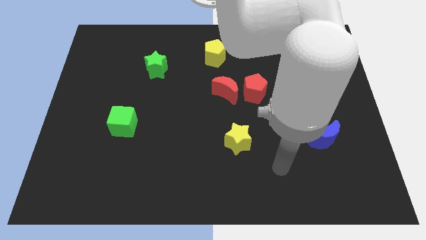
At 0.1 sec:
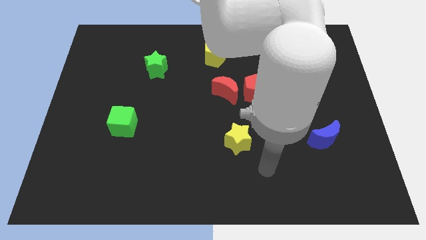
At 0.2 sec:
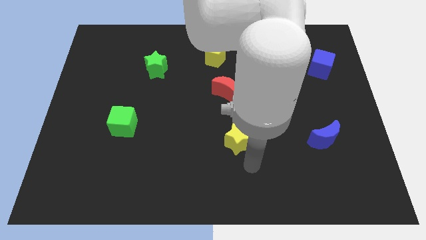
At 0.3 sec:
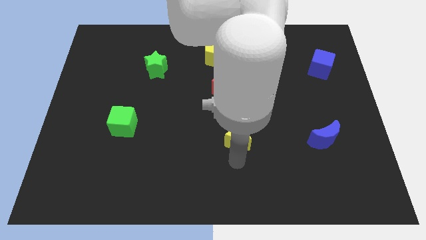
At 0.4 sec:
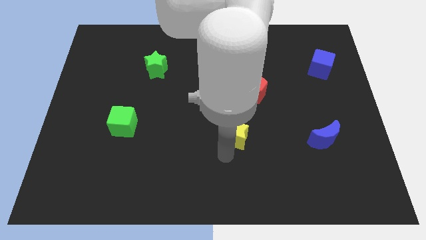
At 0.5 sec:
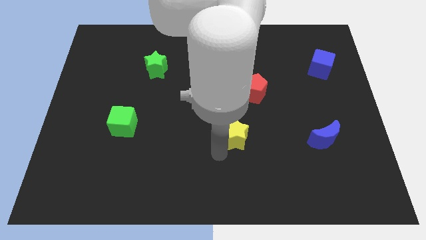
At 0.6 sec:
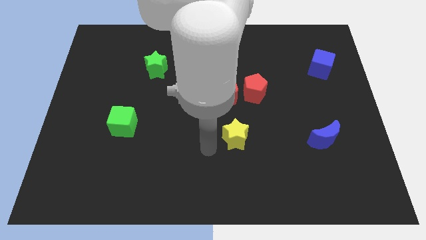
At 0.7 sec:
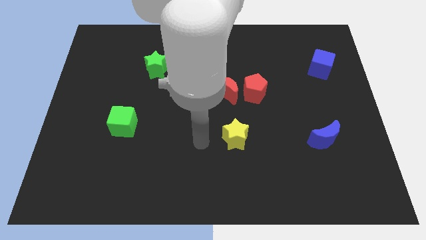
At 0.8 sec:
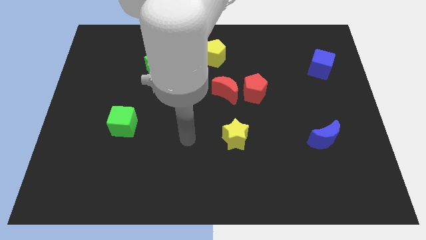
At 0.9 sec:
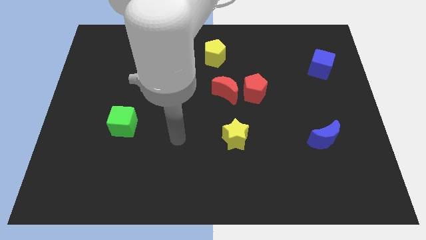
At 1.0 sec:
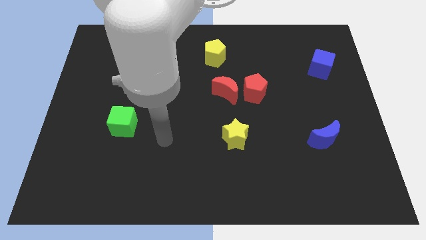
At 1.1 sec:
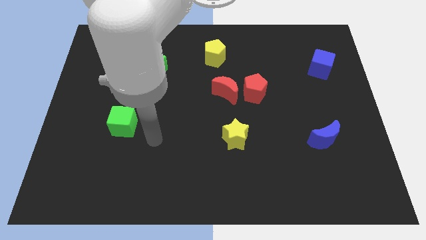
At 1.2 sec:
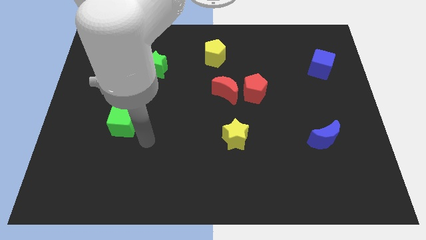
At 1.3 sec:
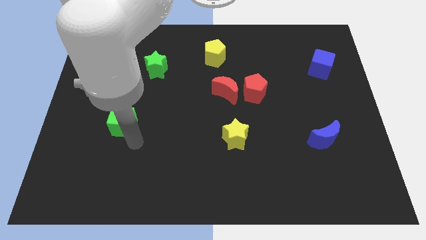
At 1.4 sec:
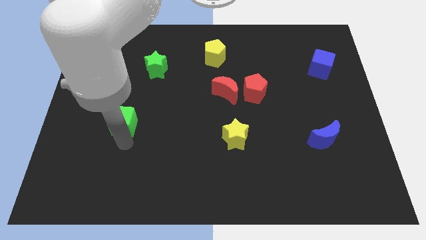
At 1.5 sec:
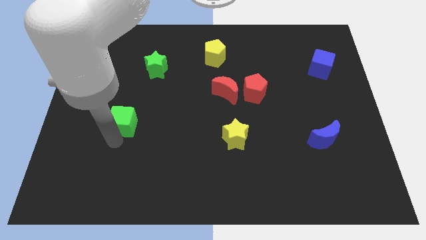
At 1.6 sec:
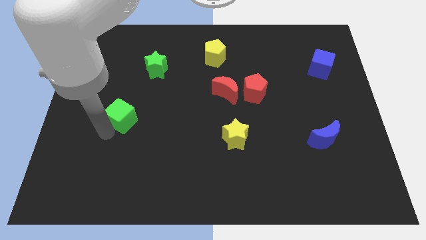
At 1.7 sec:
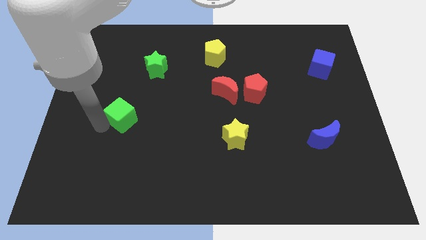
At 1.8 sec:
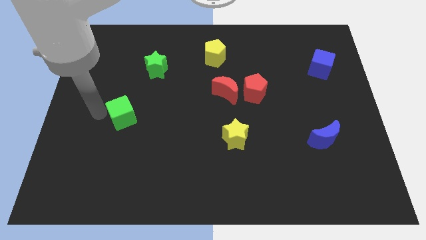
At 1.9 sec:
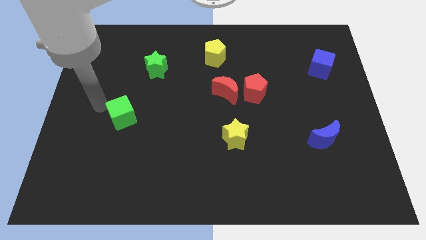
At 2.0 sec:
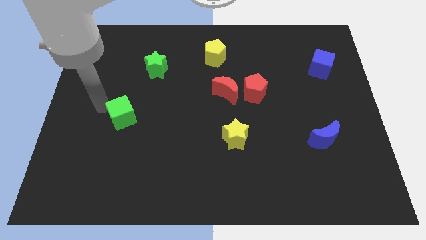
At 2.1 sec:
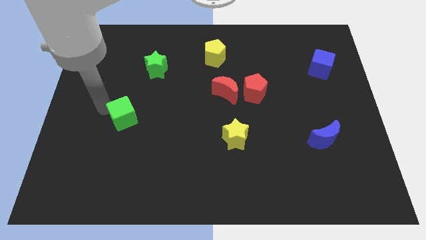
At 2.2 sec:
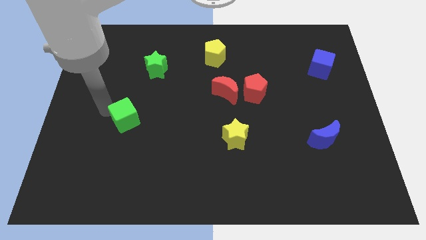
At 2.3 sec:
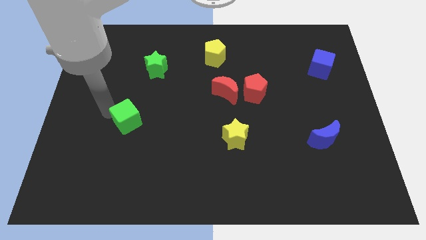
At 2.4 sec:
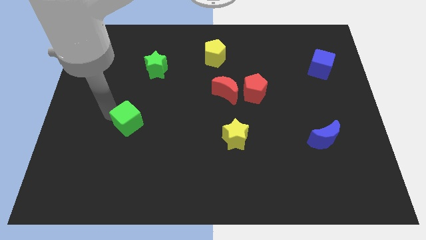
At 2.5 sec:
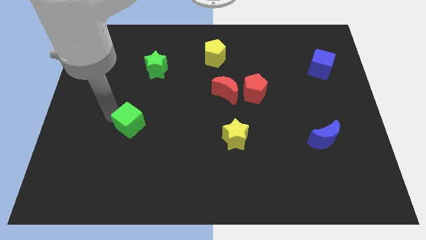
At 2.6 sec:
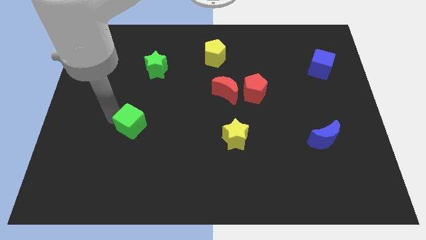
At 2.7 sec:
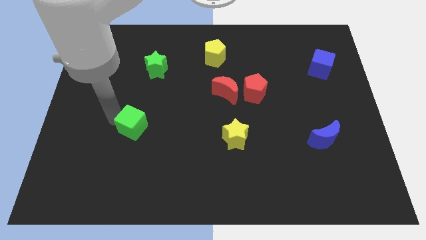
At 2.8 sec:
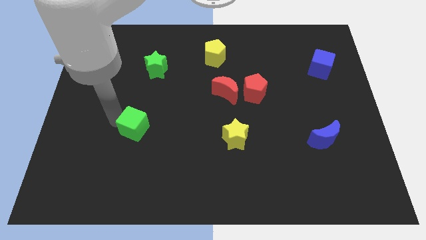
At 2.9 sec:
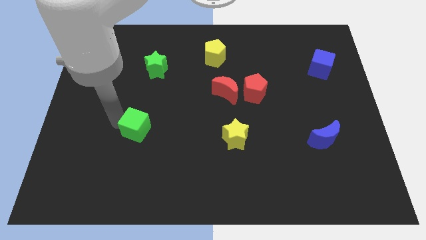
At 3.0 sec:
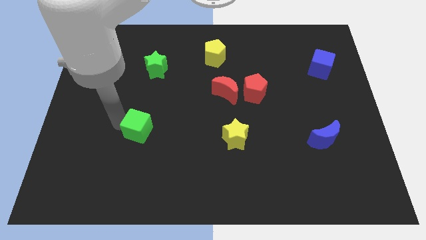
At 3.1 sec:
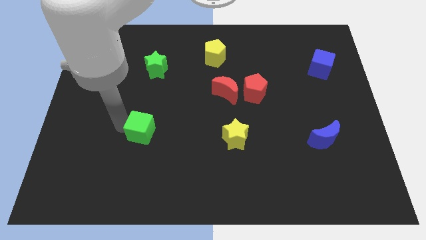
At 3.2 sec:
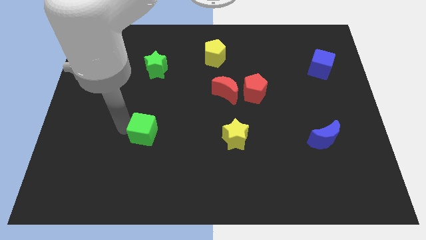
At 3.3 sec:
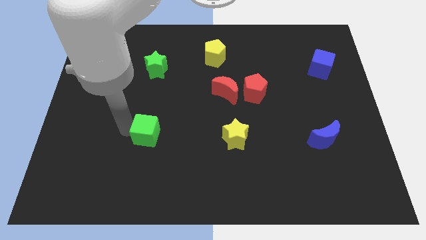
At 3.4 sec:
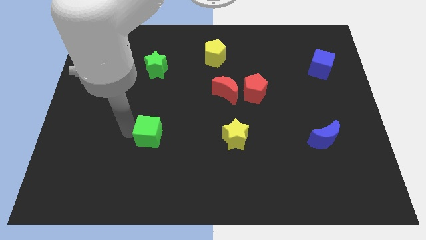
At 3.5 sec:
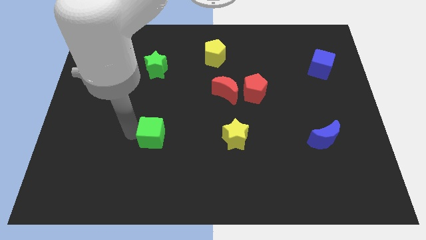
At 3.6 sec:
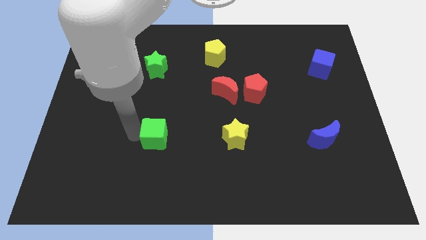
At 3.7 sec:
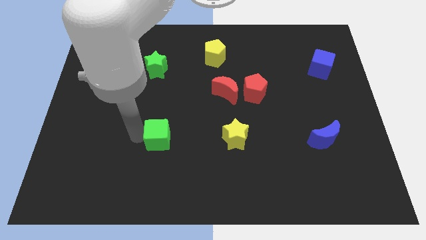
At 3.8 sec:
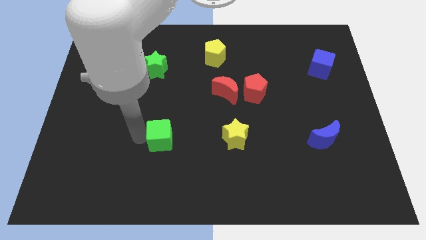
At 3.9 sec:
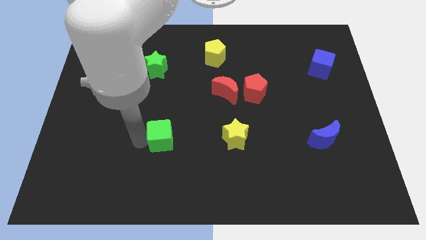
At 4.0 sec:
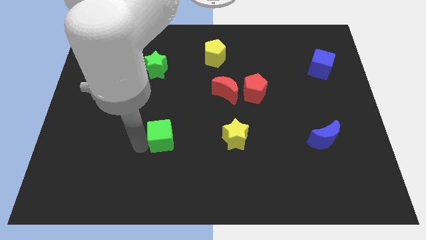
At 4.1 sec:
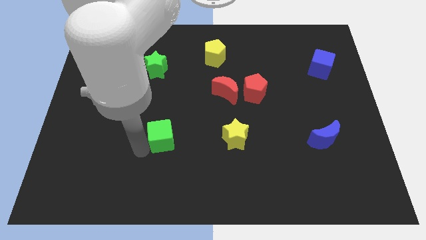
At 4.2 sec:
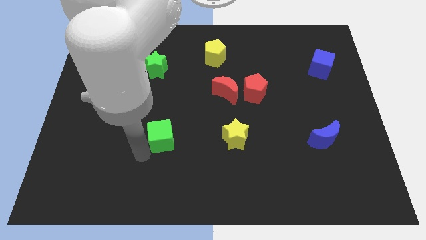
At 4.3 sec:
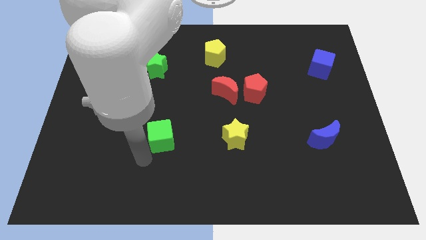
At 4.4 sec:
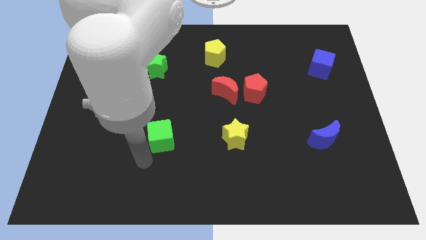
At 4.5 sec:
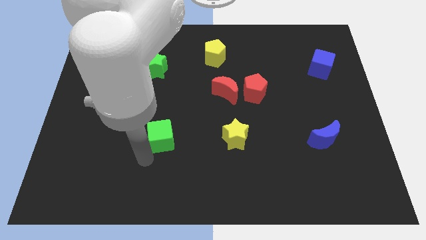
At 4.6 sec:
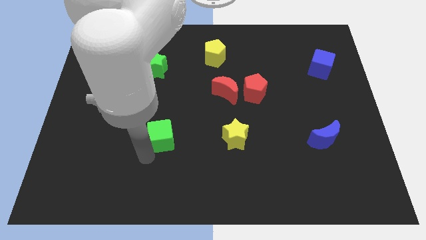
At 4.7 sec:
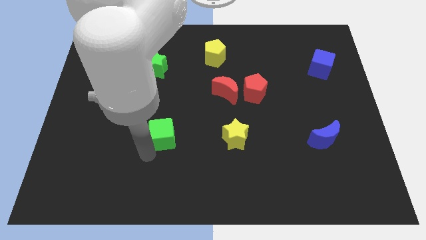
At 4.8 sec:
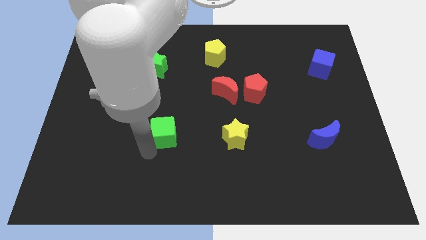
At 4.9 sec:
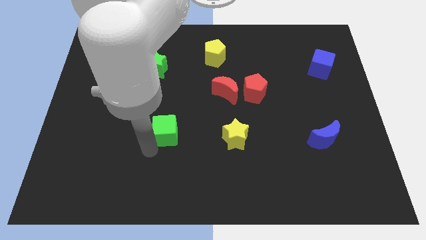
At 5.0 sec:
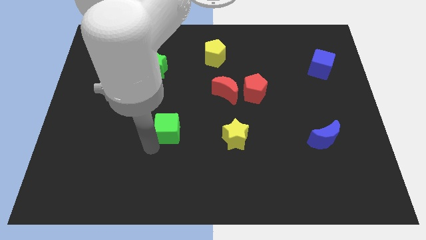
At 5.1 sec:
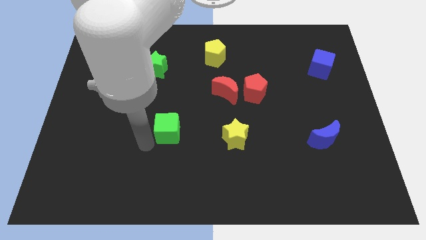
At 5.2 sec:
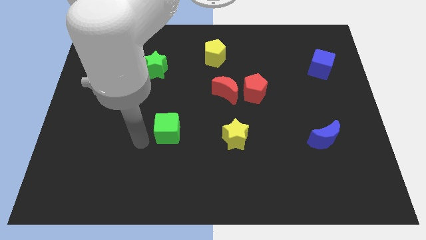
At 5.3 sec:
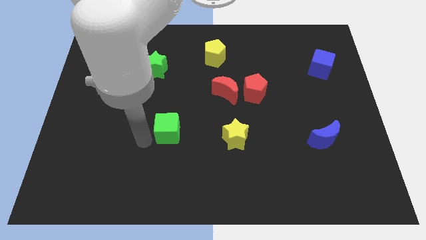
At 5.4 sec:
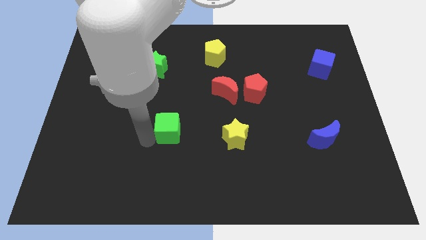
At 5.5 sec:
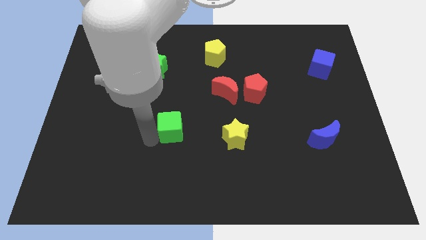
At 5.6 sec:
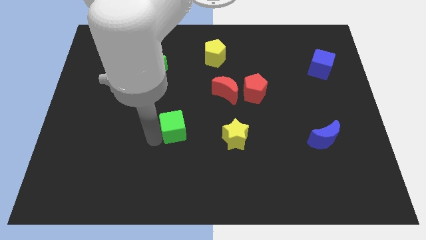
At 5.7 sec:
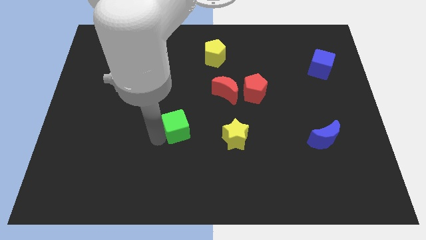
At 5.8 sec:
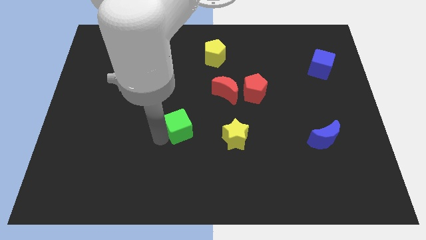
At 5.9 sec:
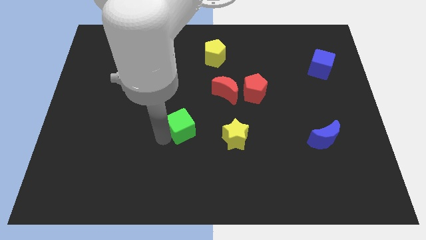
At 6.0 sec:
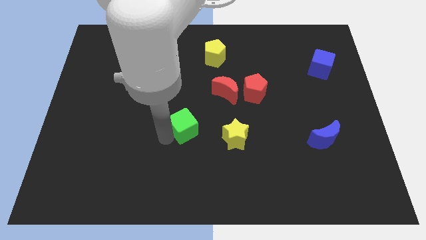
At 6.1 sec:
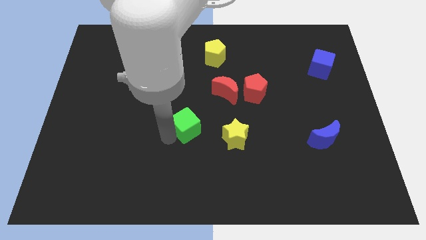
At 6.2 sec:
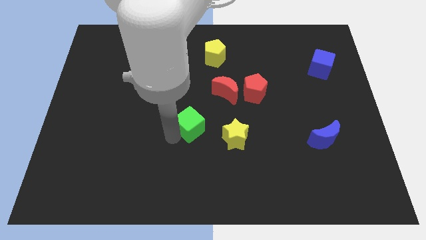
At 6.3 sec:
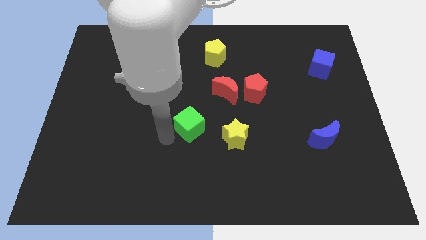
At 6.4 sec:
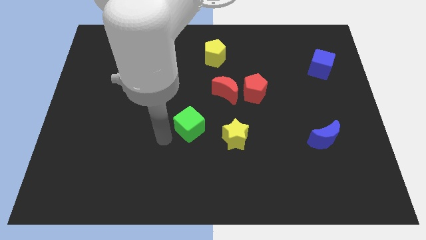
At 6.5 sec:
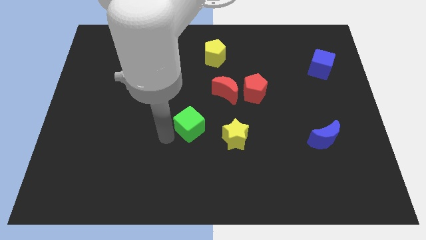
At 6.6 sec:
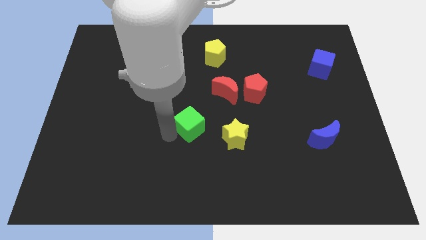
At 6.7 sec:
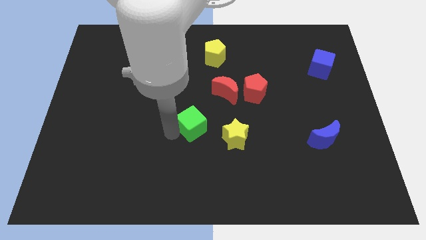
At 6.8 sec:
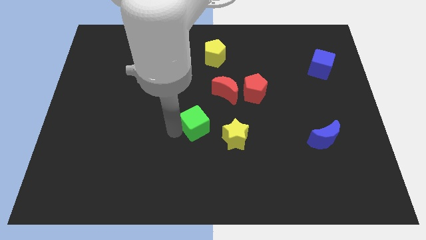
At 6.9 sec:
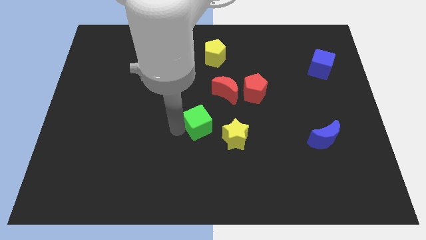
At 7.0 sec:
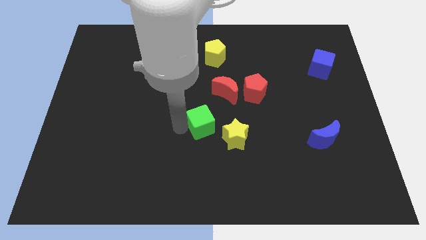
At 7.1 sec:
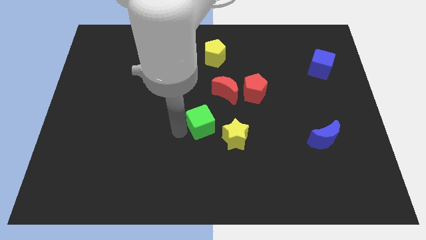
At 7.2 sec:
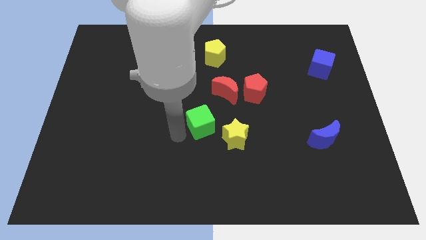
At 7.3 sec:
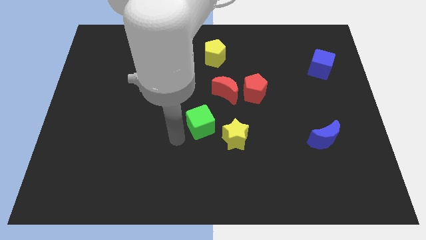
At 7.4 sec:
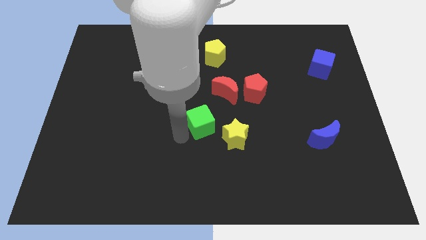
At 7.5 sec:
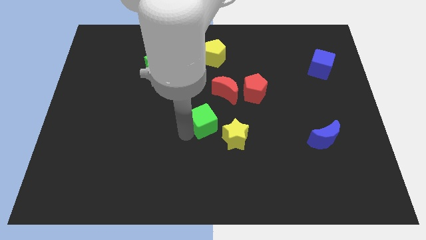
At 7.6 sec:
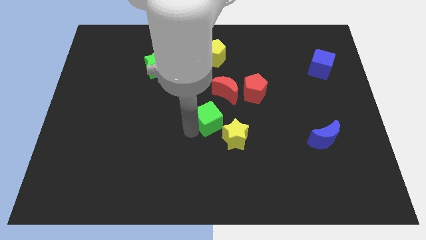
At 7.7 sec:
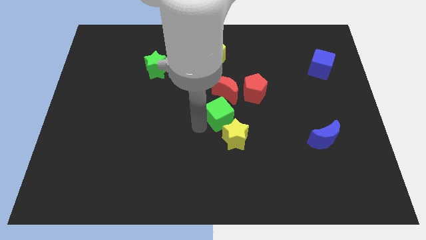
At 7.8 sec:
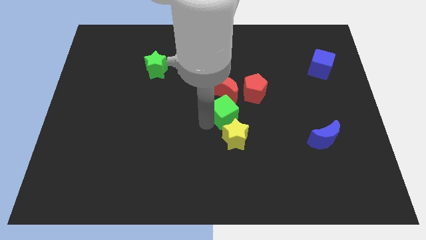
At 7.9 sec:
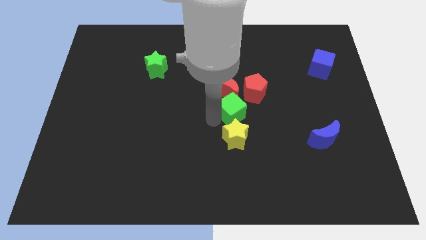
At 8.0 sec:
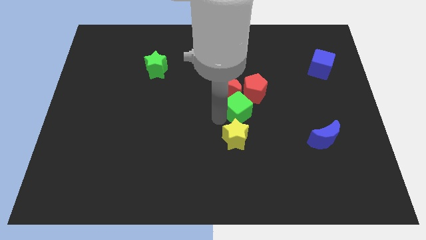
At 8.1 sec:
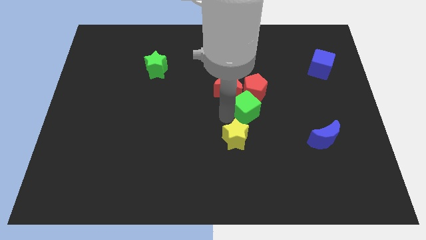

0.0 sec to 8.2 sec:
slide the green cube towards the red pentagon
